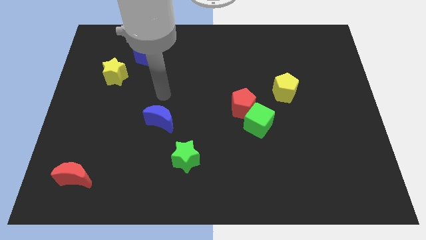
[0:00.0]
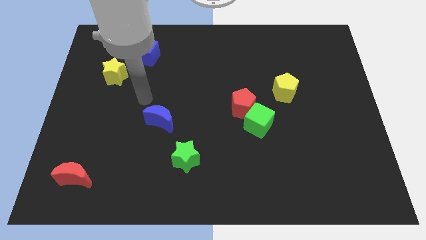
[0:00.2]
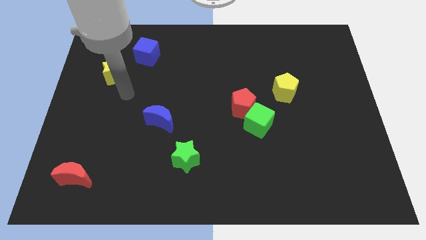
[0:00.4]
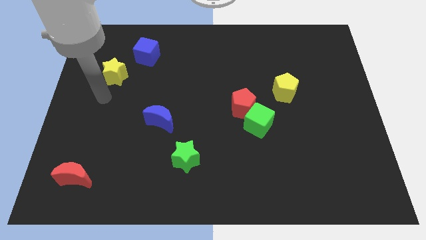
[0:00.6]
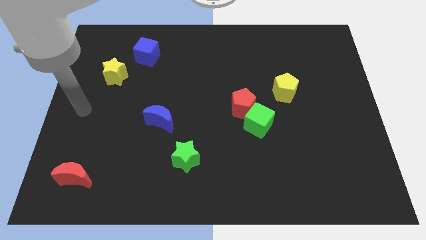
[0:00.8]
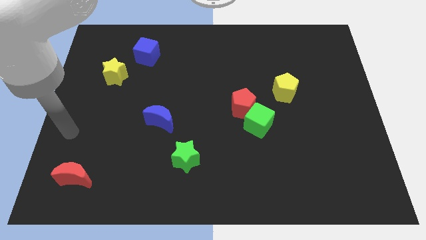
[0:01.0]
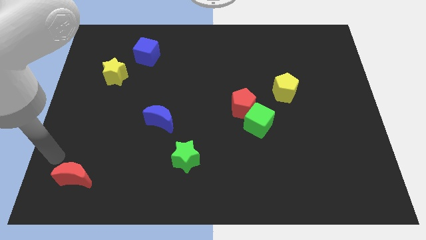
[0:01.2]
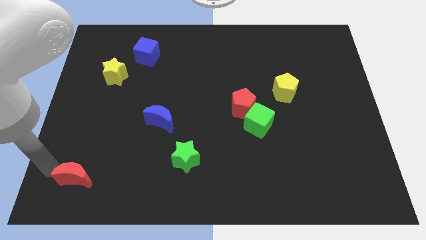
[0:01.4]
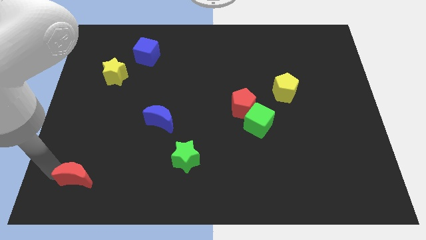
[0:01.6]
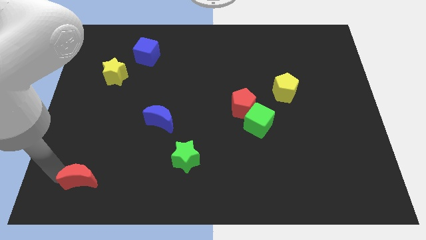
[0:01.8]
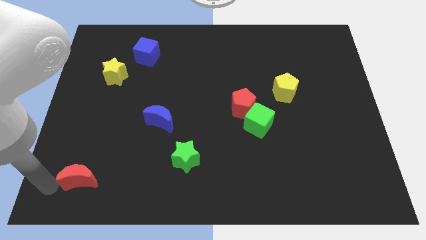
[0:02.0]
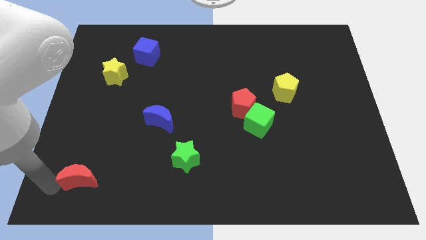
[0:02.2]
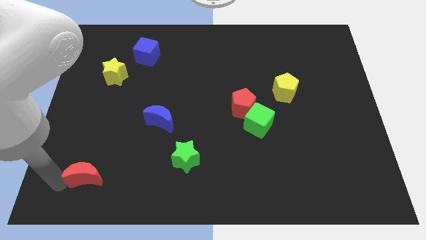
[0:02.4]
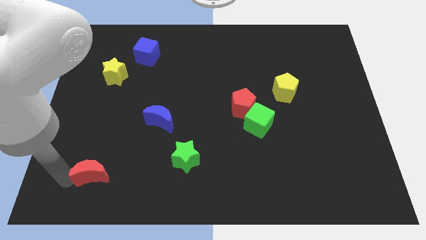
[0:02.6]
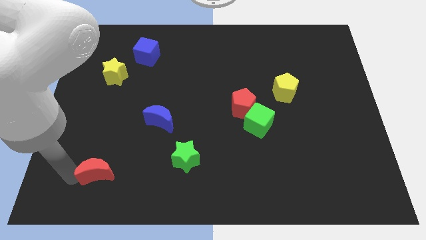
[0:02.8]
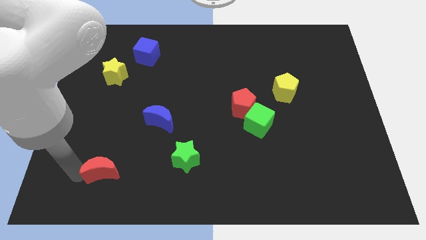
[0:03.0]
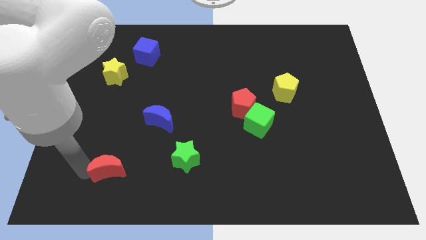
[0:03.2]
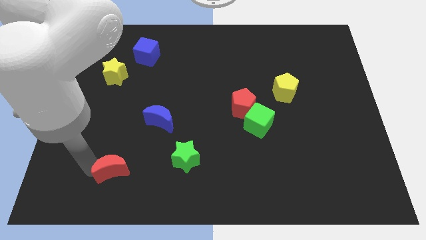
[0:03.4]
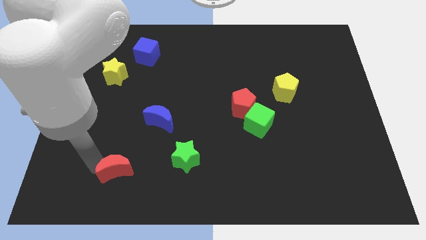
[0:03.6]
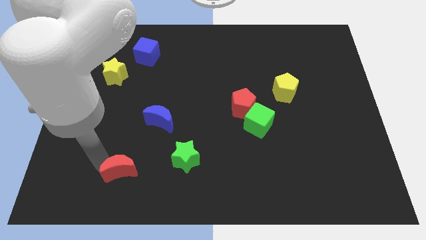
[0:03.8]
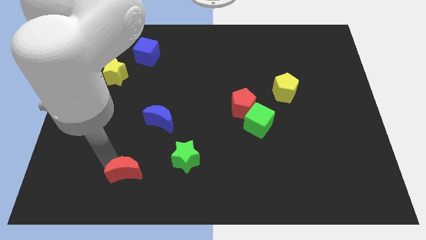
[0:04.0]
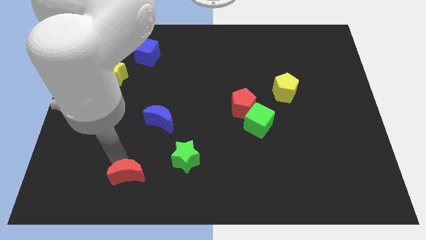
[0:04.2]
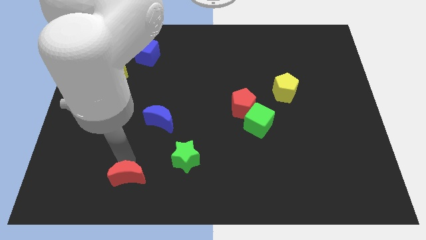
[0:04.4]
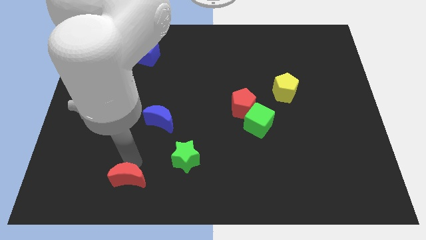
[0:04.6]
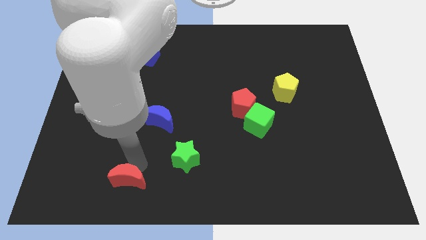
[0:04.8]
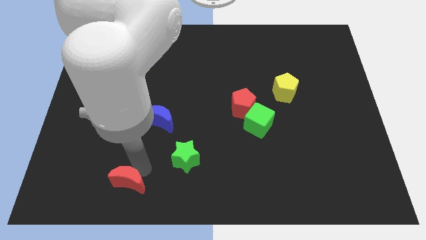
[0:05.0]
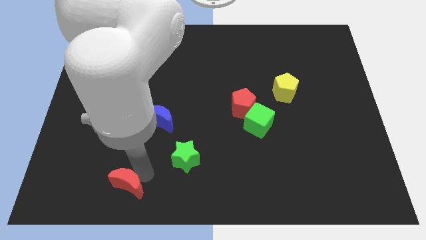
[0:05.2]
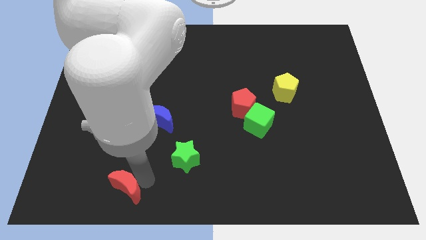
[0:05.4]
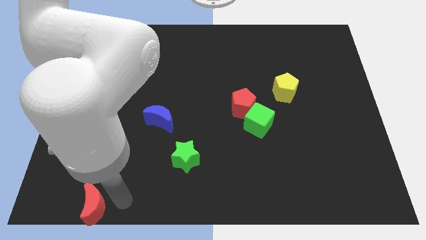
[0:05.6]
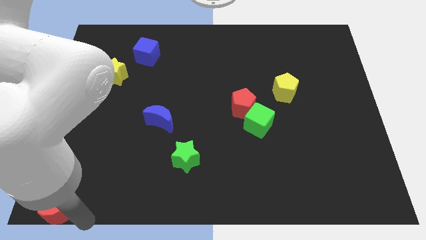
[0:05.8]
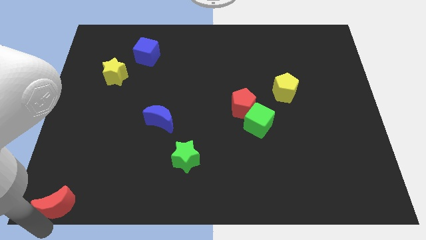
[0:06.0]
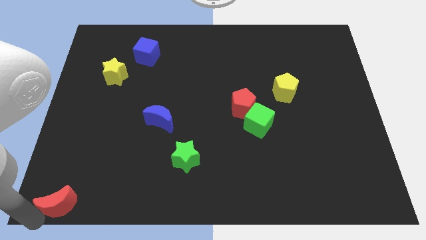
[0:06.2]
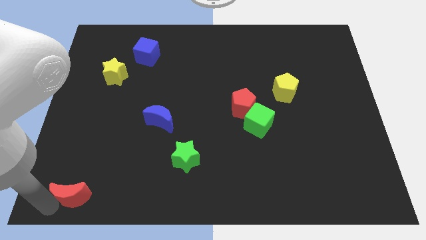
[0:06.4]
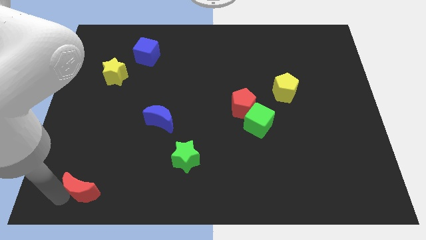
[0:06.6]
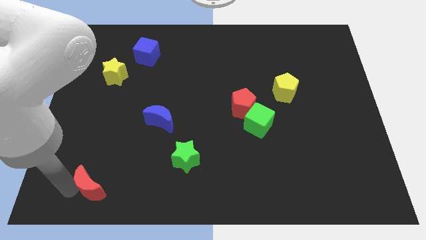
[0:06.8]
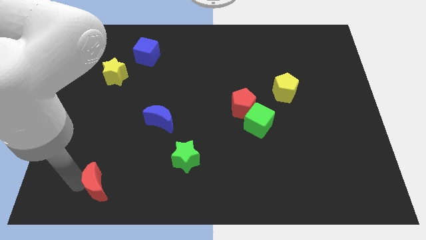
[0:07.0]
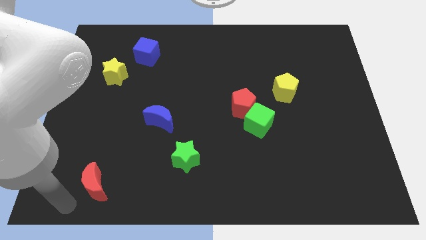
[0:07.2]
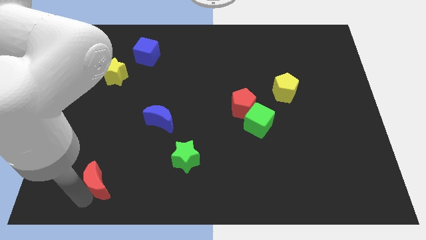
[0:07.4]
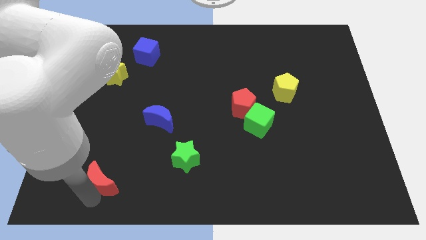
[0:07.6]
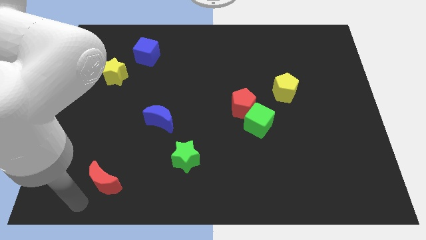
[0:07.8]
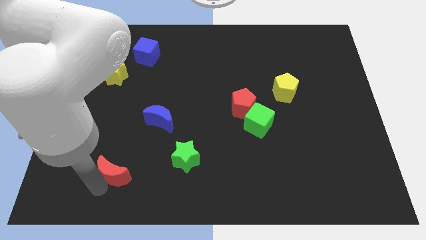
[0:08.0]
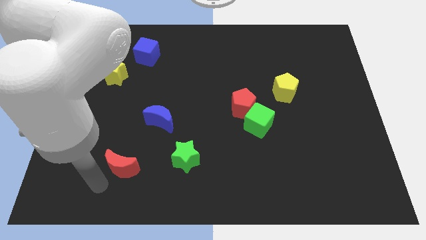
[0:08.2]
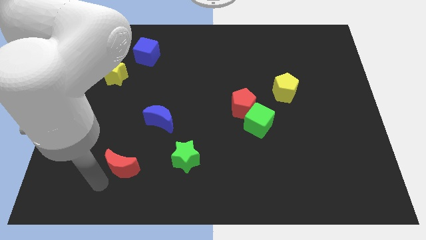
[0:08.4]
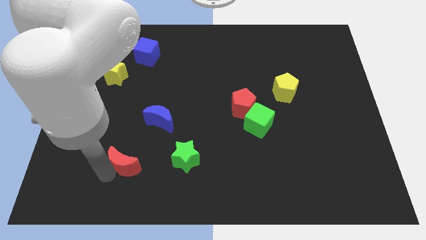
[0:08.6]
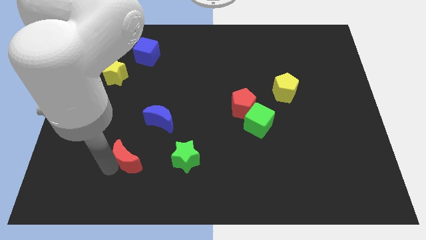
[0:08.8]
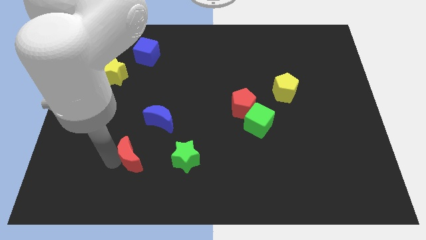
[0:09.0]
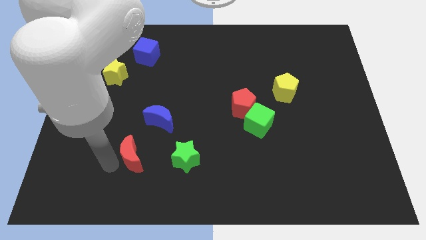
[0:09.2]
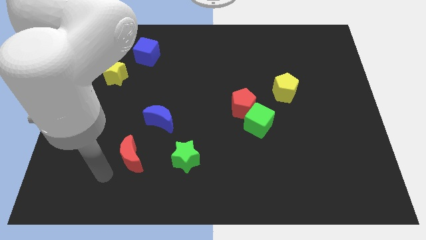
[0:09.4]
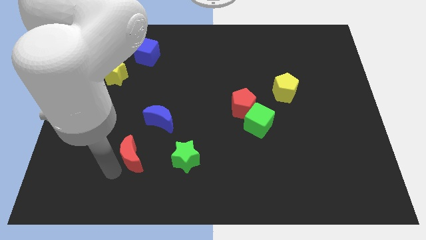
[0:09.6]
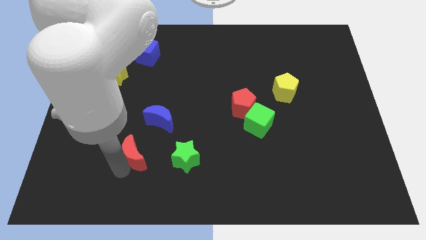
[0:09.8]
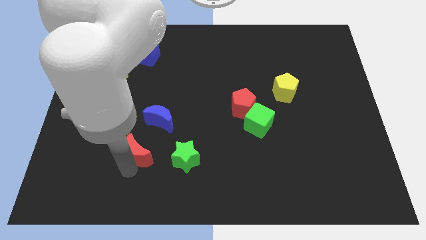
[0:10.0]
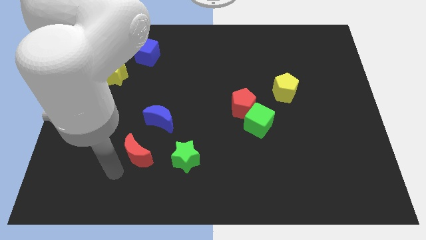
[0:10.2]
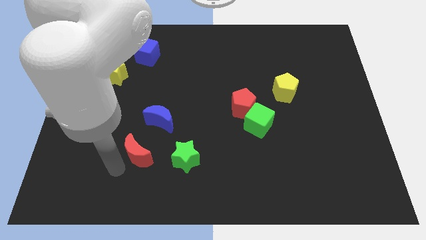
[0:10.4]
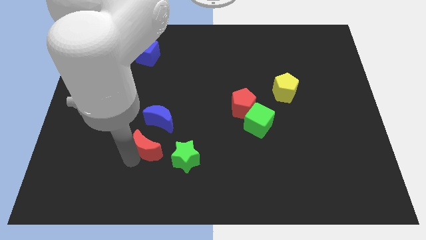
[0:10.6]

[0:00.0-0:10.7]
slide the red moon diagonally up and to the left of the green star

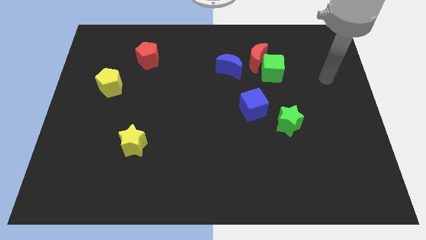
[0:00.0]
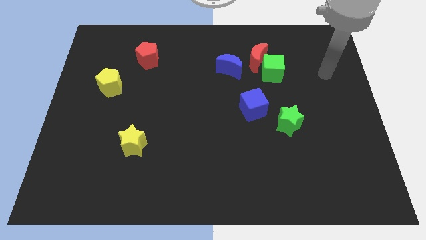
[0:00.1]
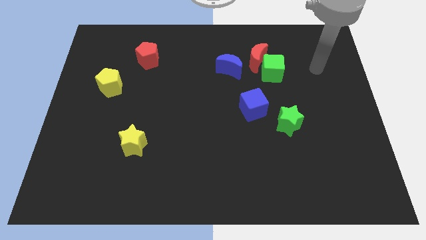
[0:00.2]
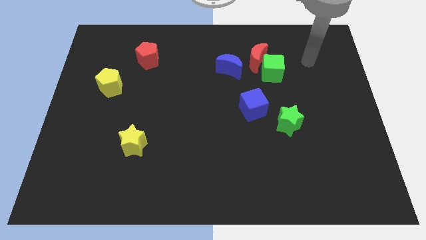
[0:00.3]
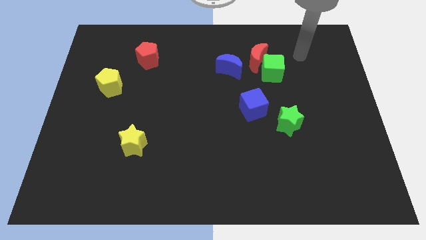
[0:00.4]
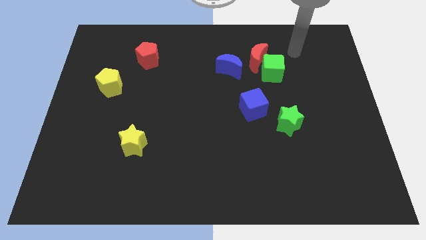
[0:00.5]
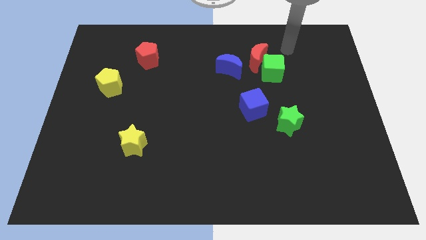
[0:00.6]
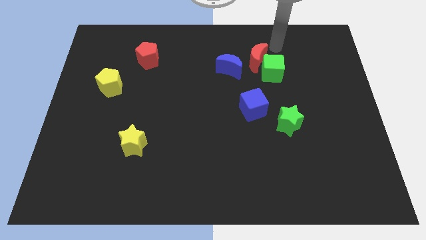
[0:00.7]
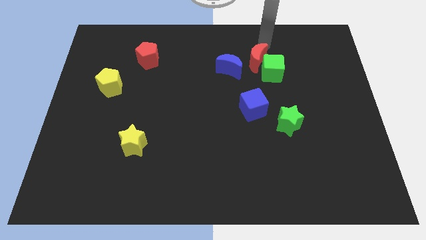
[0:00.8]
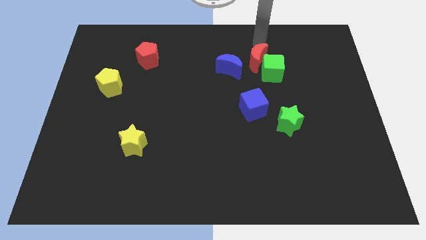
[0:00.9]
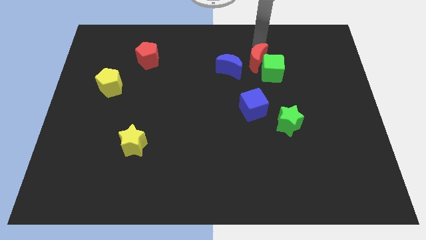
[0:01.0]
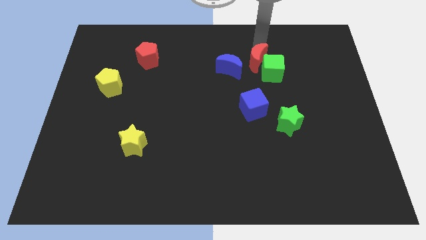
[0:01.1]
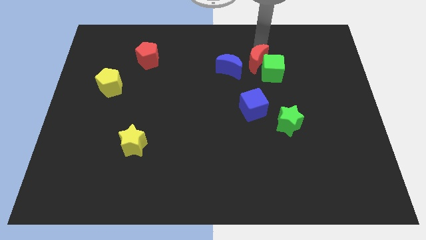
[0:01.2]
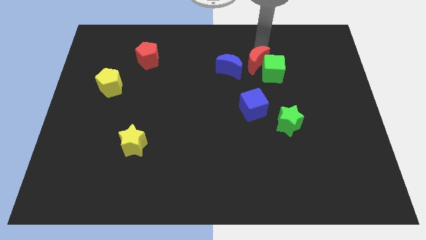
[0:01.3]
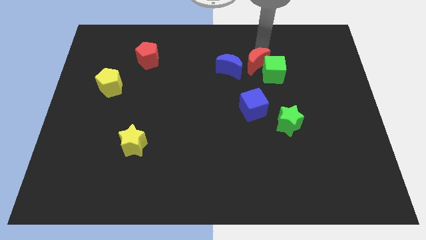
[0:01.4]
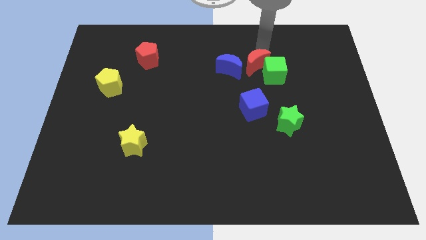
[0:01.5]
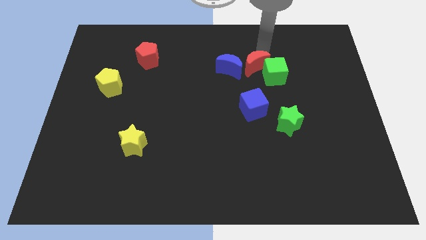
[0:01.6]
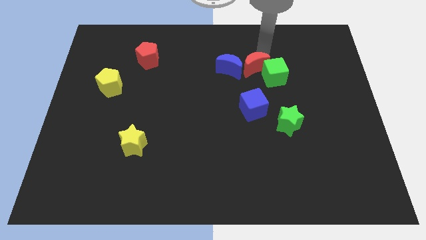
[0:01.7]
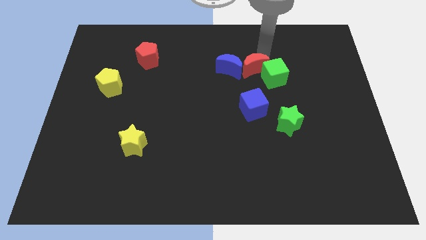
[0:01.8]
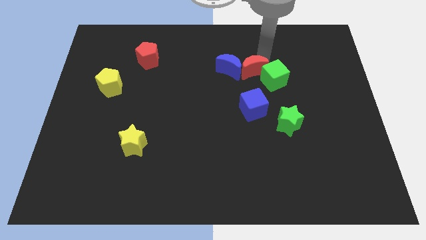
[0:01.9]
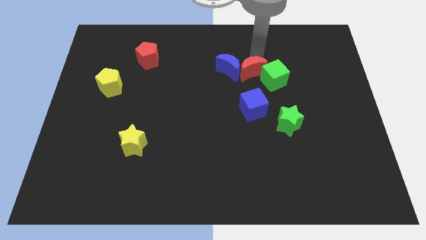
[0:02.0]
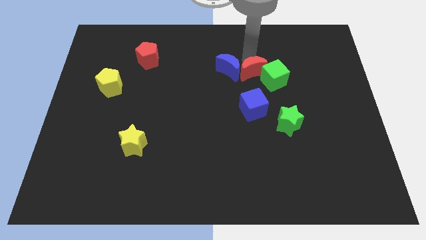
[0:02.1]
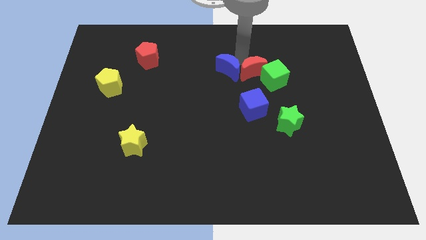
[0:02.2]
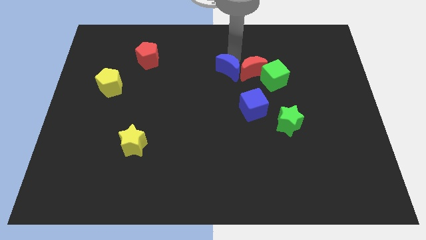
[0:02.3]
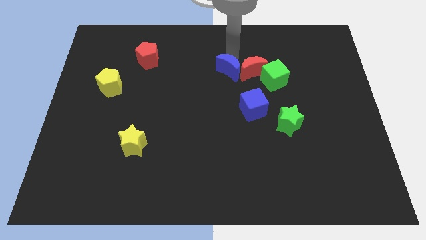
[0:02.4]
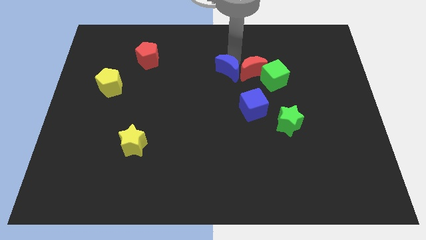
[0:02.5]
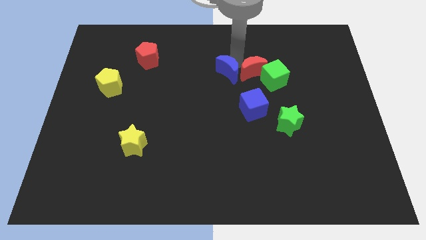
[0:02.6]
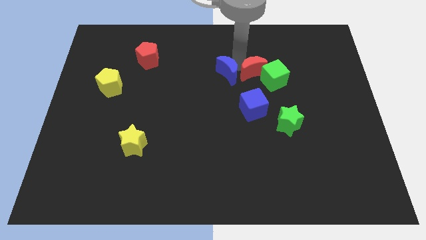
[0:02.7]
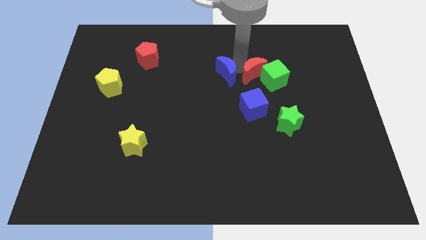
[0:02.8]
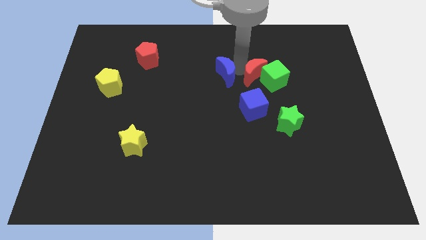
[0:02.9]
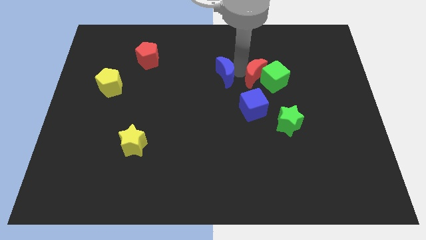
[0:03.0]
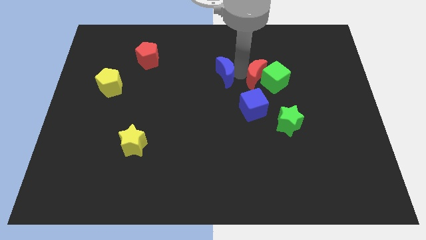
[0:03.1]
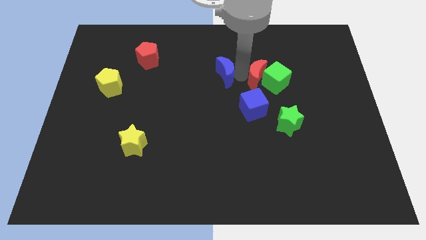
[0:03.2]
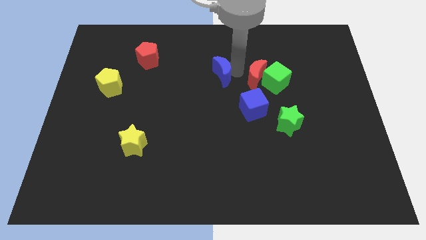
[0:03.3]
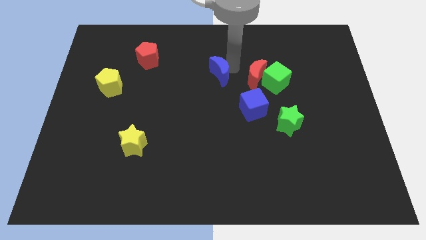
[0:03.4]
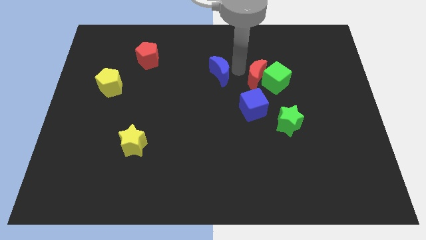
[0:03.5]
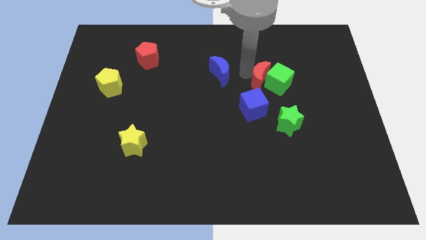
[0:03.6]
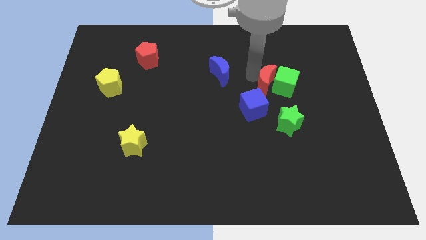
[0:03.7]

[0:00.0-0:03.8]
put the red moon above the green star
